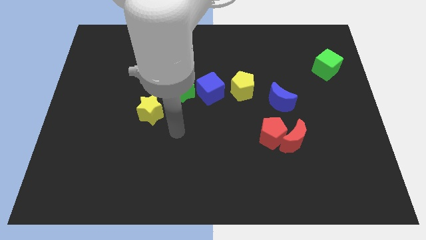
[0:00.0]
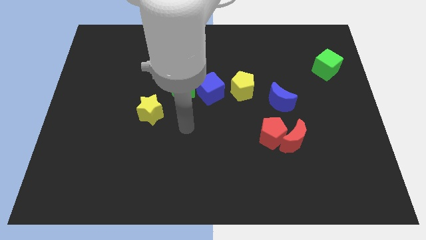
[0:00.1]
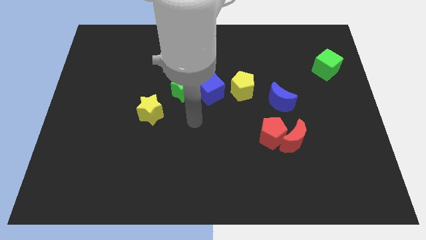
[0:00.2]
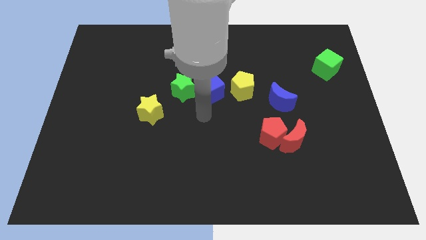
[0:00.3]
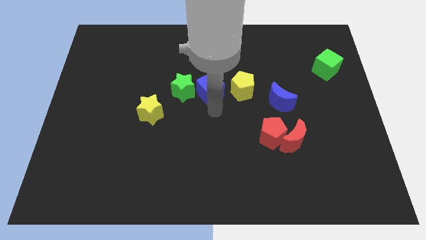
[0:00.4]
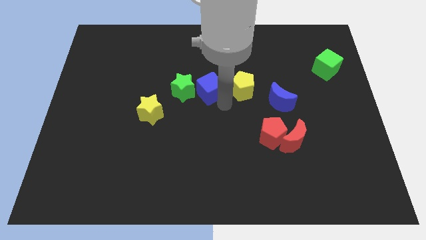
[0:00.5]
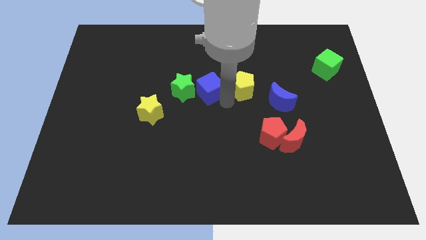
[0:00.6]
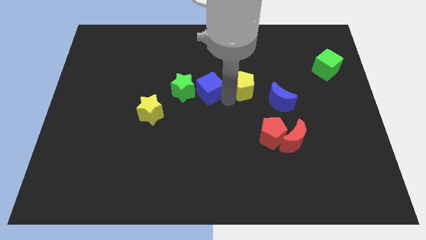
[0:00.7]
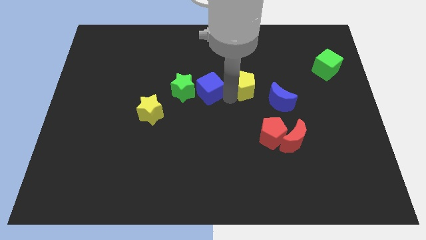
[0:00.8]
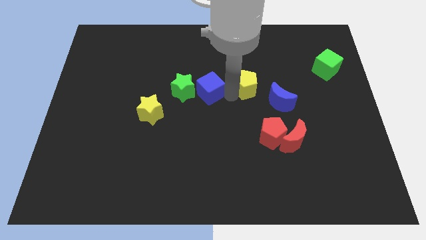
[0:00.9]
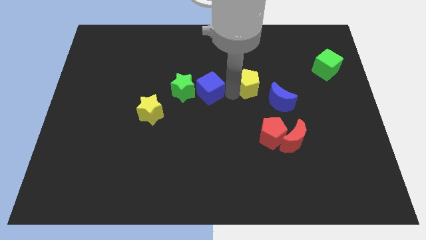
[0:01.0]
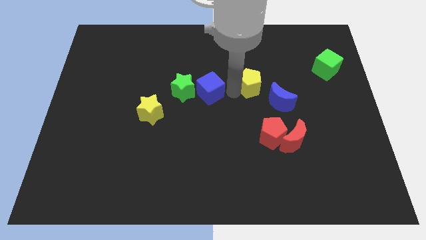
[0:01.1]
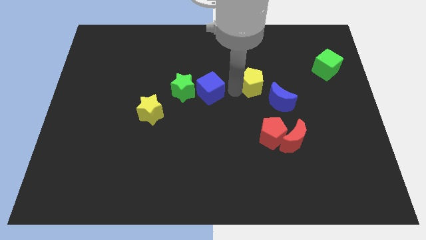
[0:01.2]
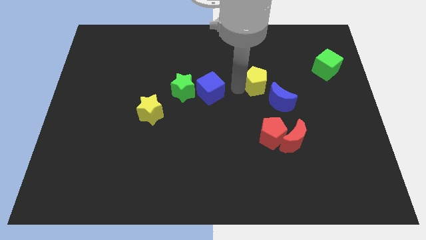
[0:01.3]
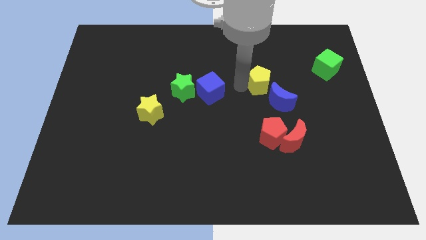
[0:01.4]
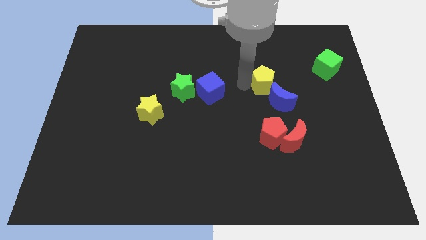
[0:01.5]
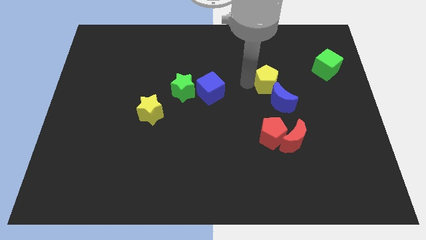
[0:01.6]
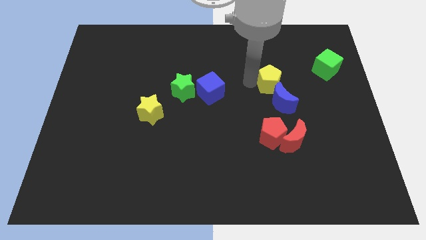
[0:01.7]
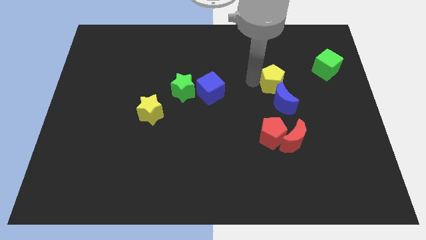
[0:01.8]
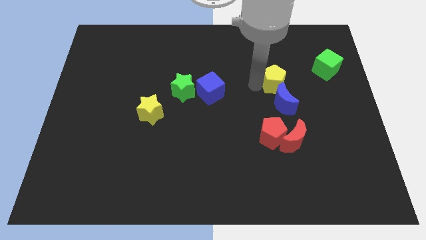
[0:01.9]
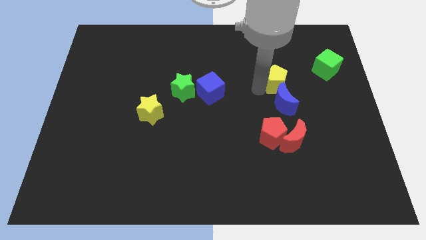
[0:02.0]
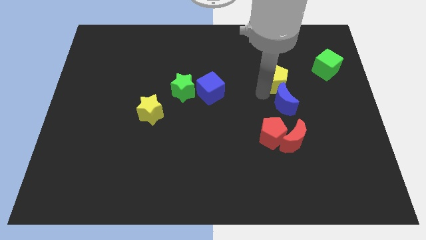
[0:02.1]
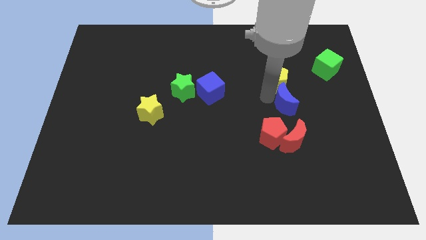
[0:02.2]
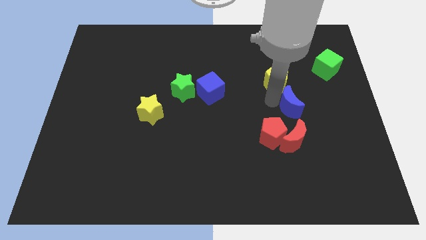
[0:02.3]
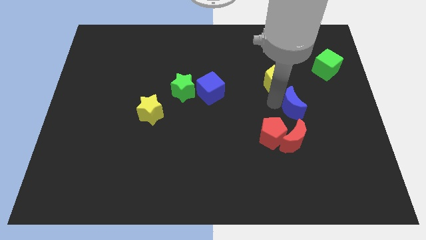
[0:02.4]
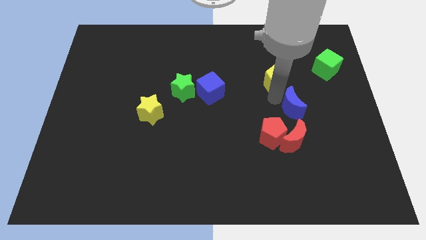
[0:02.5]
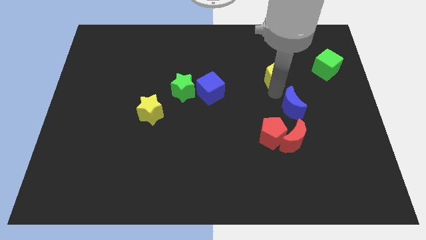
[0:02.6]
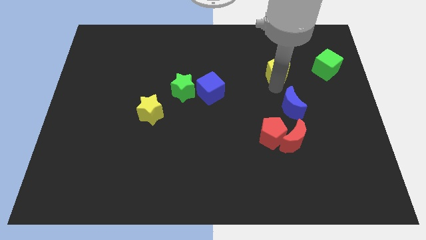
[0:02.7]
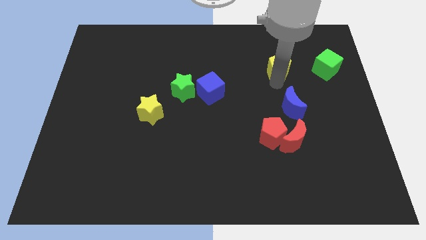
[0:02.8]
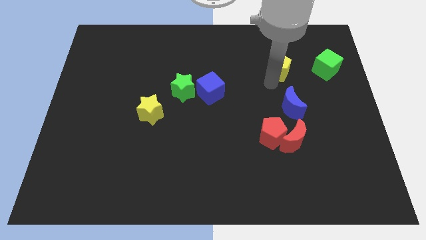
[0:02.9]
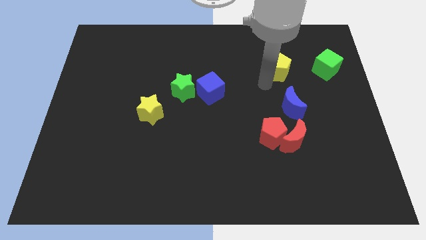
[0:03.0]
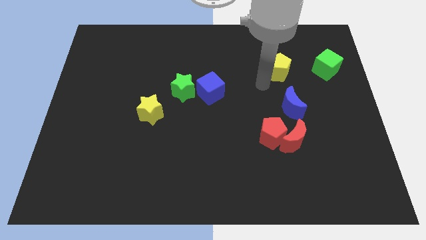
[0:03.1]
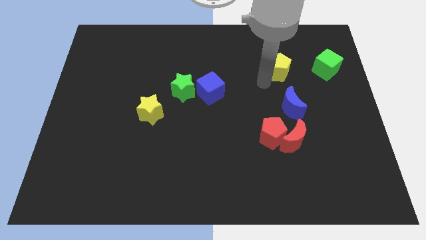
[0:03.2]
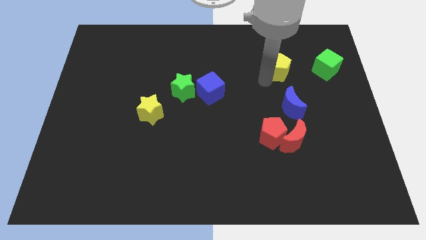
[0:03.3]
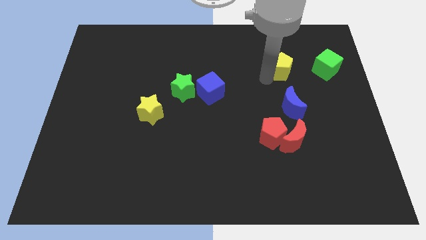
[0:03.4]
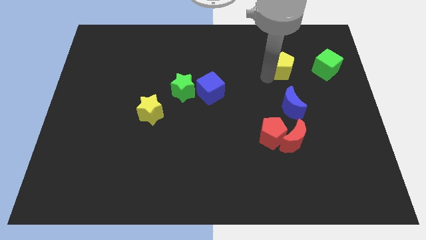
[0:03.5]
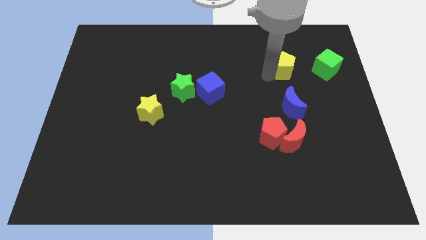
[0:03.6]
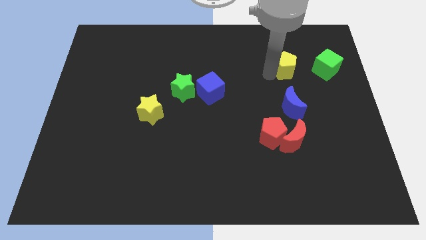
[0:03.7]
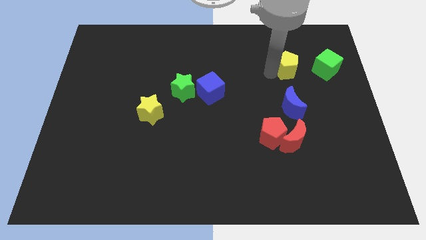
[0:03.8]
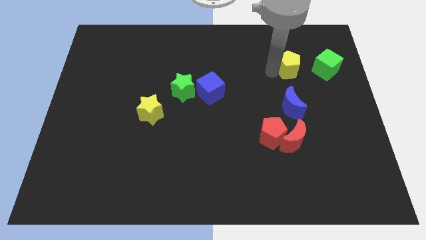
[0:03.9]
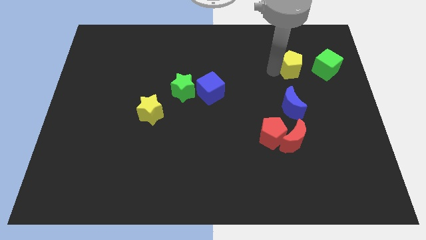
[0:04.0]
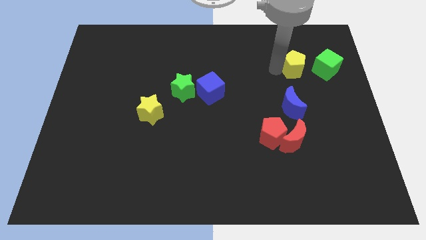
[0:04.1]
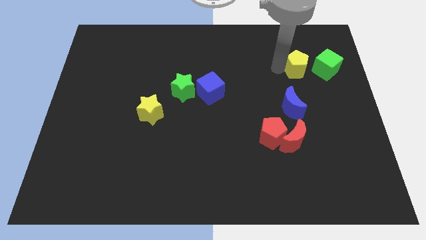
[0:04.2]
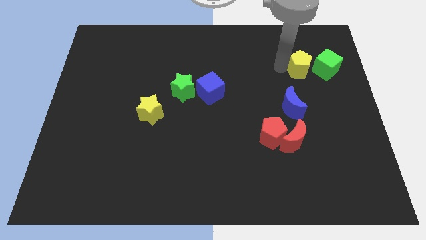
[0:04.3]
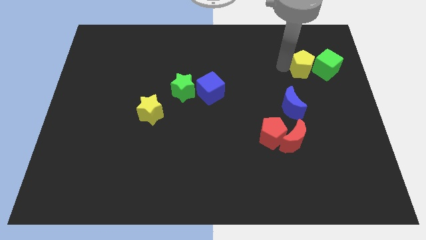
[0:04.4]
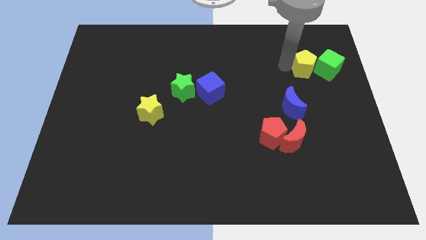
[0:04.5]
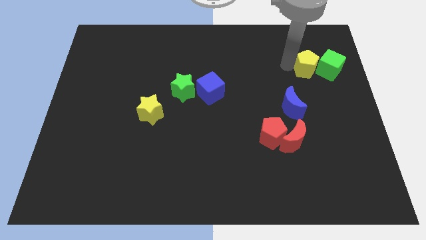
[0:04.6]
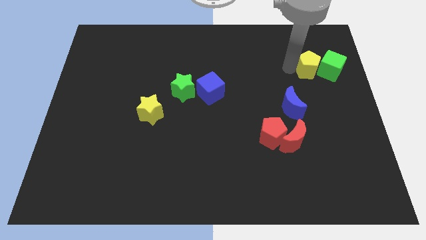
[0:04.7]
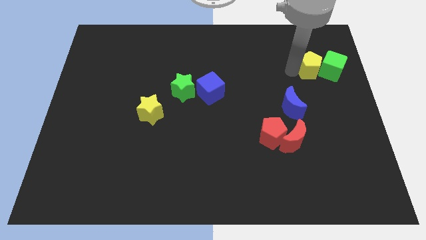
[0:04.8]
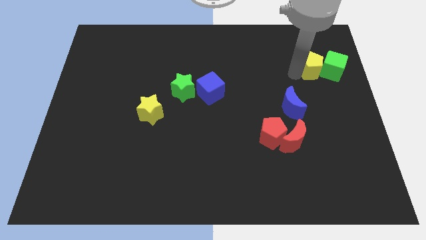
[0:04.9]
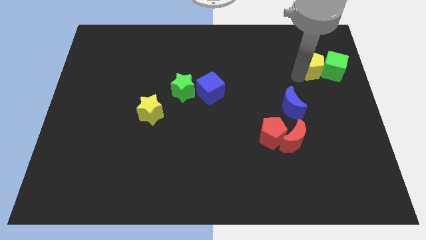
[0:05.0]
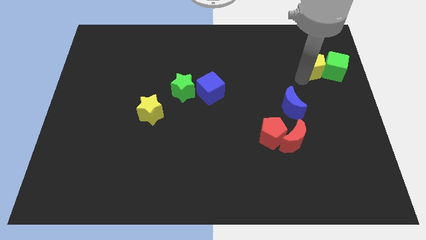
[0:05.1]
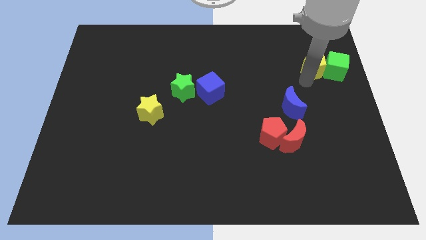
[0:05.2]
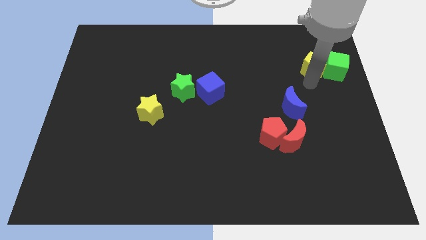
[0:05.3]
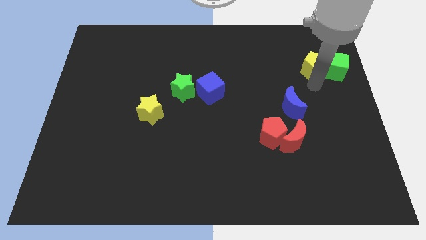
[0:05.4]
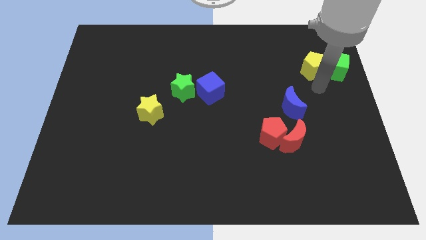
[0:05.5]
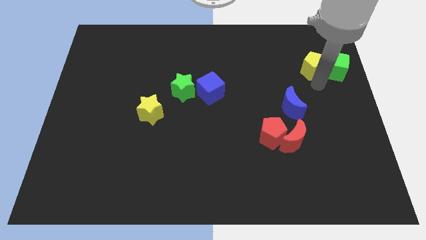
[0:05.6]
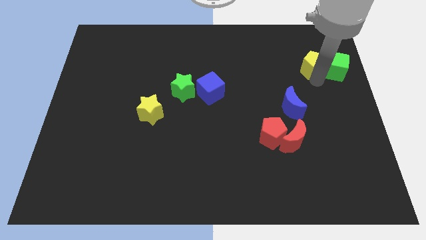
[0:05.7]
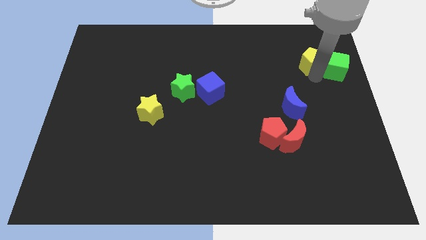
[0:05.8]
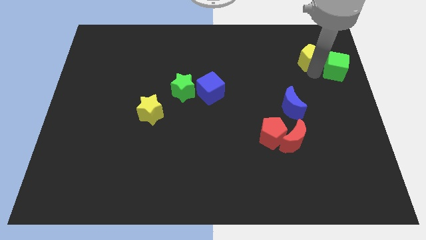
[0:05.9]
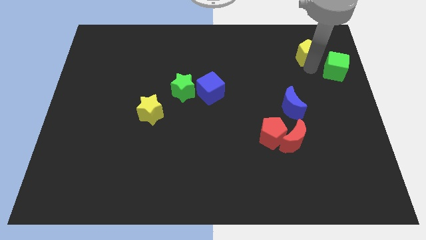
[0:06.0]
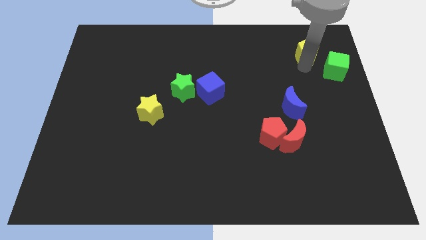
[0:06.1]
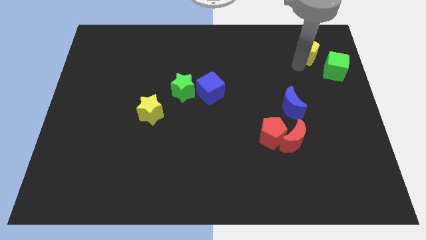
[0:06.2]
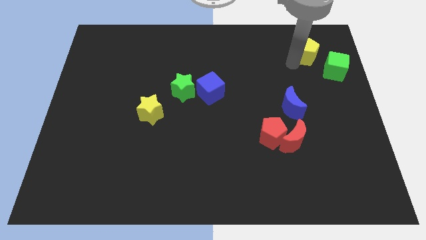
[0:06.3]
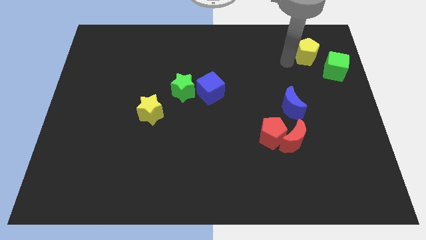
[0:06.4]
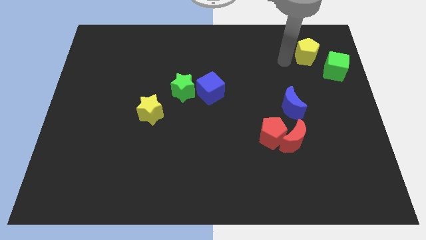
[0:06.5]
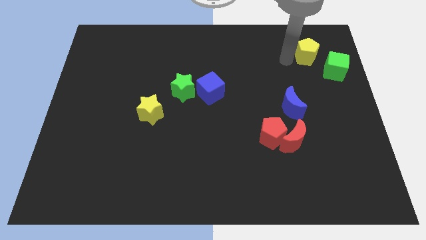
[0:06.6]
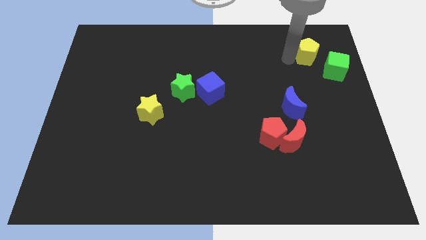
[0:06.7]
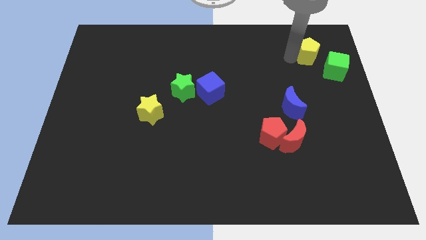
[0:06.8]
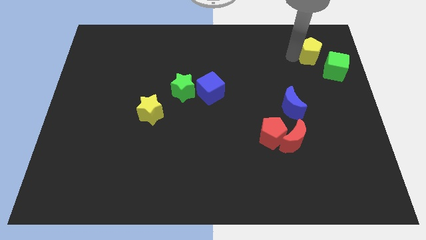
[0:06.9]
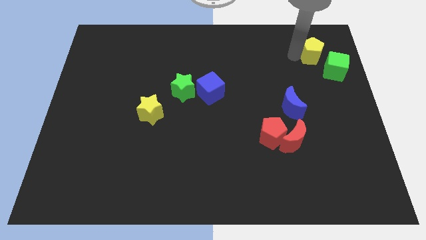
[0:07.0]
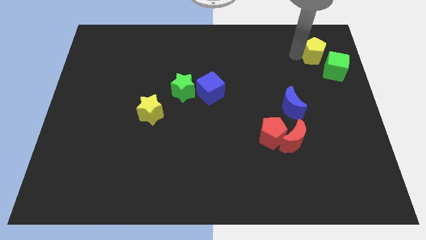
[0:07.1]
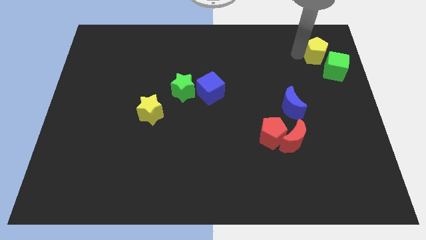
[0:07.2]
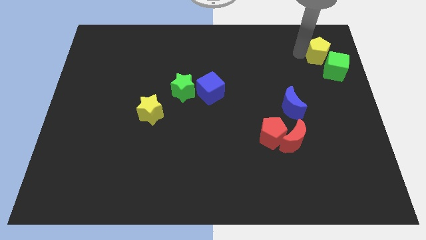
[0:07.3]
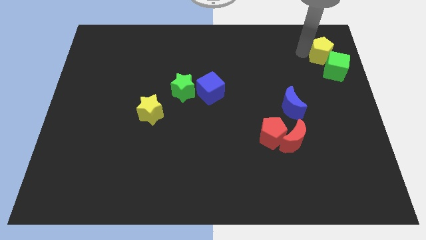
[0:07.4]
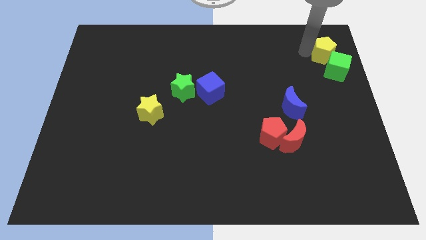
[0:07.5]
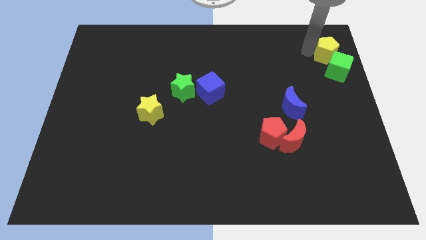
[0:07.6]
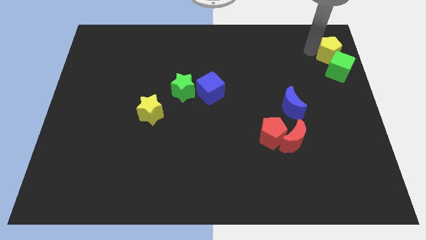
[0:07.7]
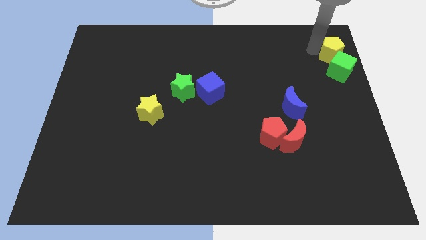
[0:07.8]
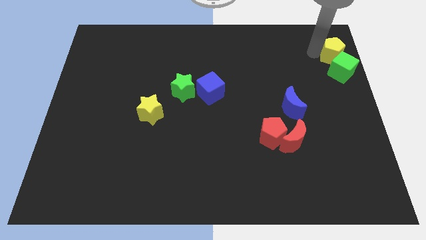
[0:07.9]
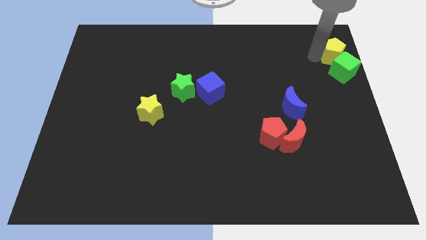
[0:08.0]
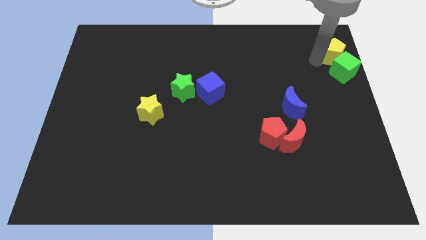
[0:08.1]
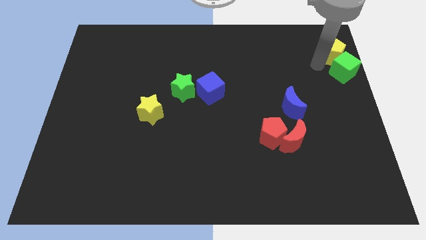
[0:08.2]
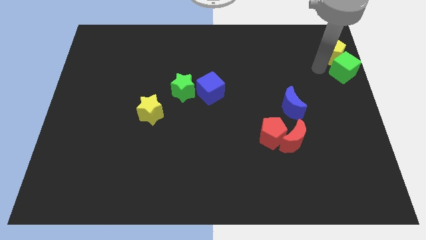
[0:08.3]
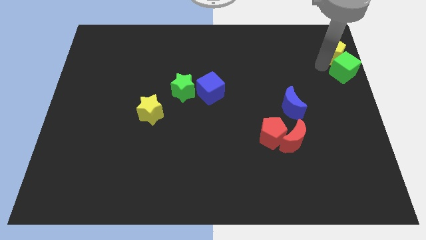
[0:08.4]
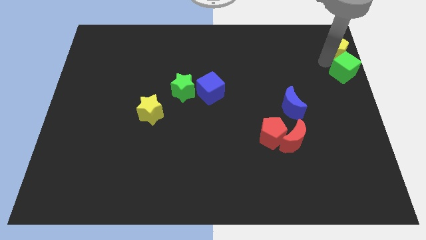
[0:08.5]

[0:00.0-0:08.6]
move the yellow pentagon to the top right of the board
